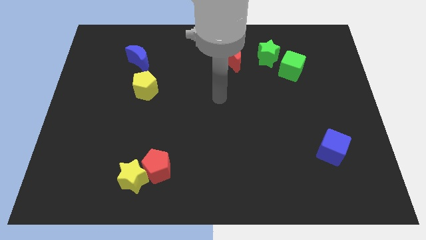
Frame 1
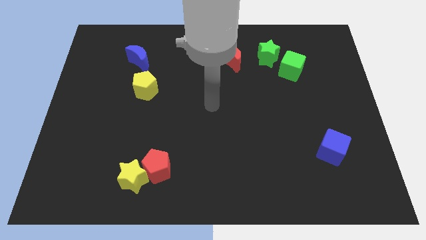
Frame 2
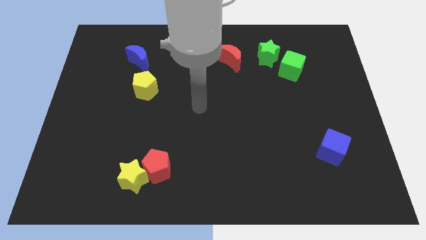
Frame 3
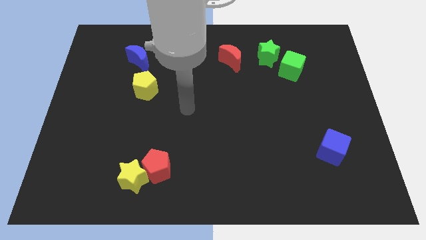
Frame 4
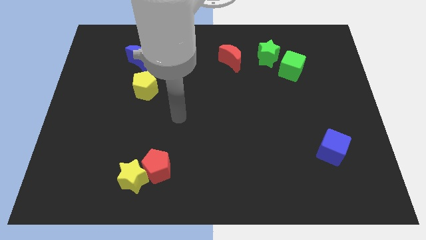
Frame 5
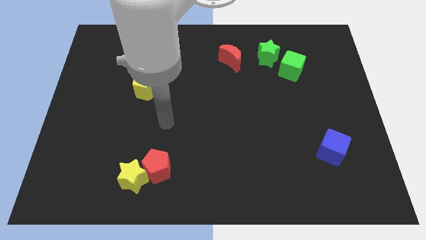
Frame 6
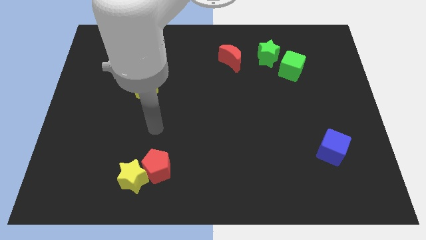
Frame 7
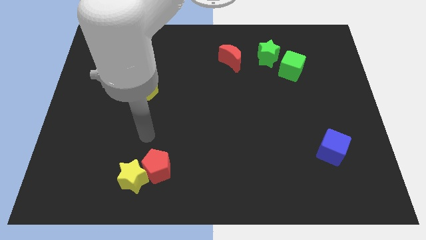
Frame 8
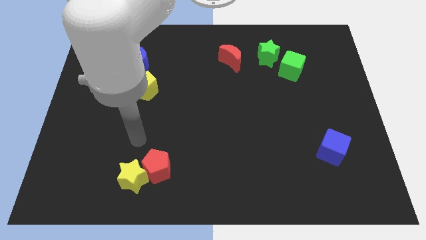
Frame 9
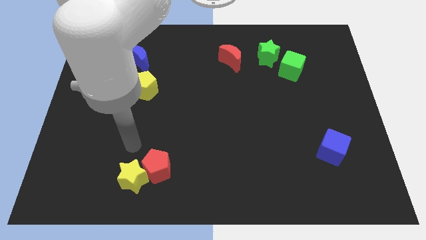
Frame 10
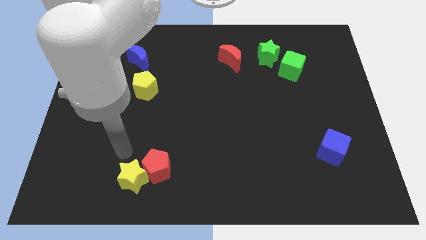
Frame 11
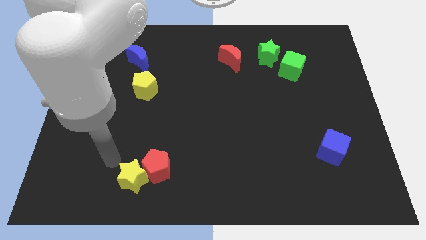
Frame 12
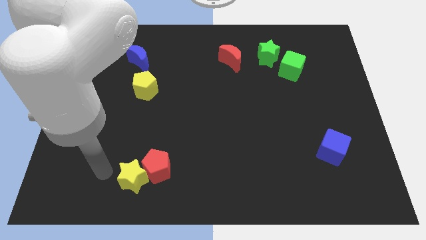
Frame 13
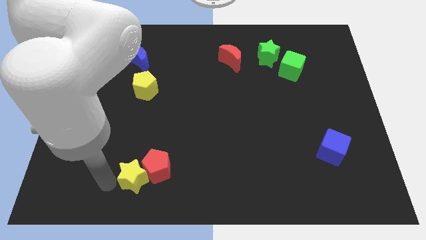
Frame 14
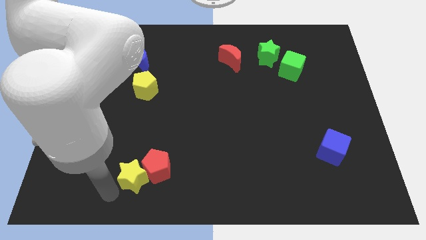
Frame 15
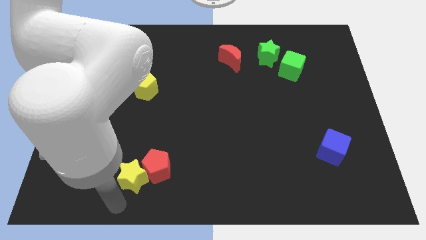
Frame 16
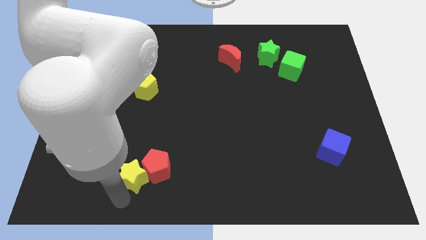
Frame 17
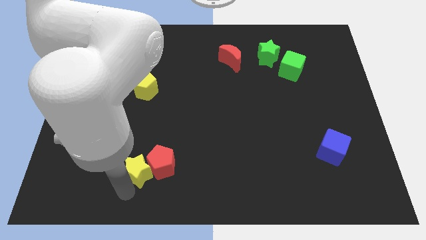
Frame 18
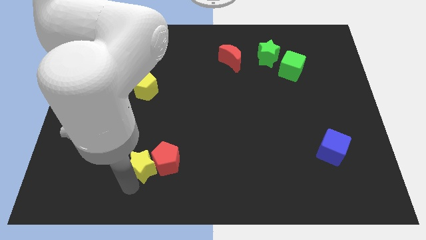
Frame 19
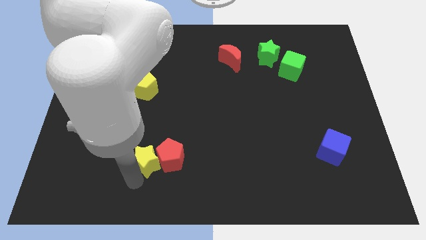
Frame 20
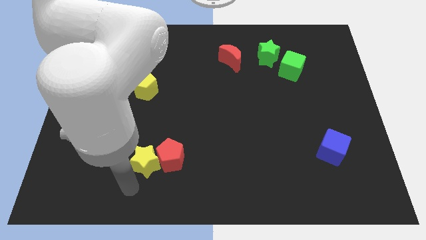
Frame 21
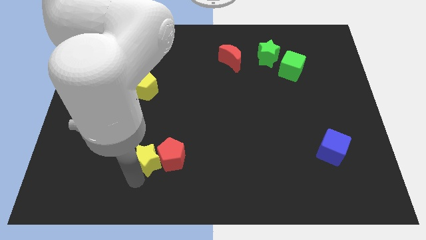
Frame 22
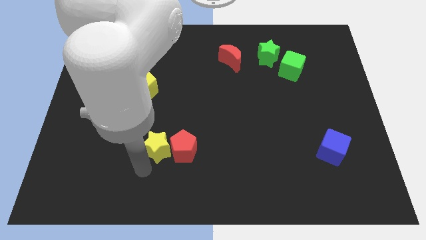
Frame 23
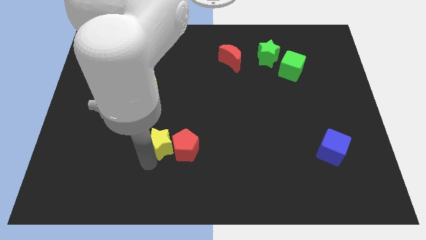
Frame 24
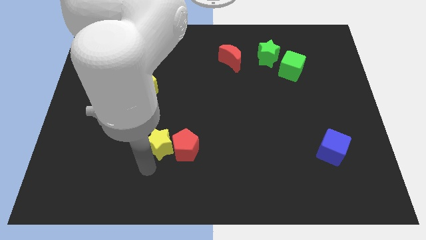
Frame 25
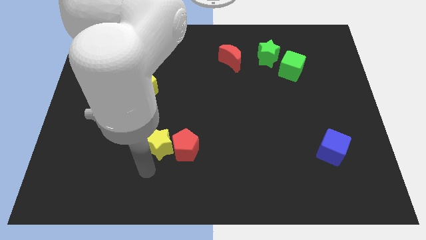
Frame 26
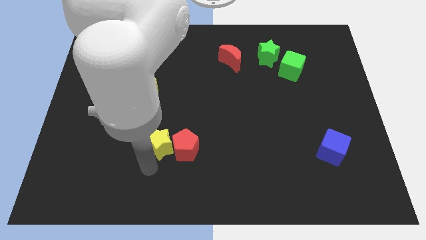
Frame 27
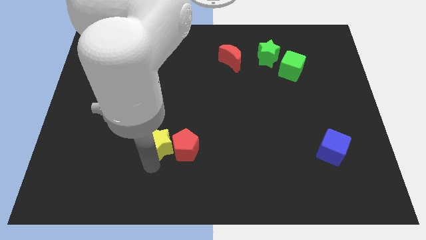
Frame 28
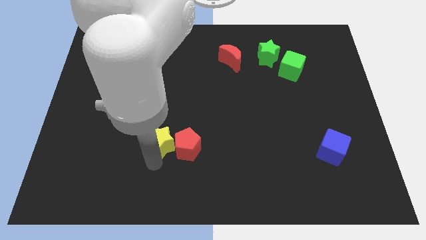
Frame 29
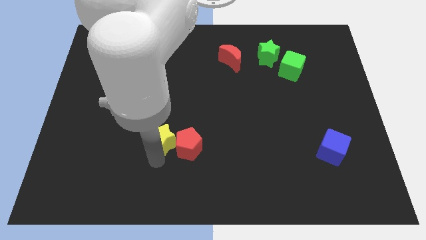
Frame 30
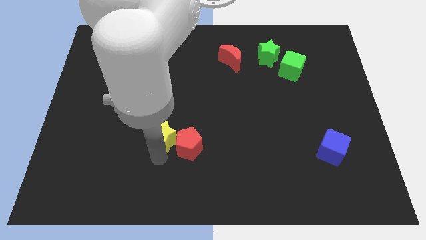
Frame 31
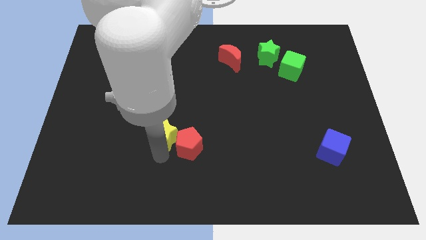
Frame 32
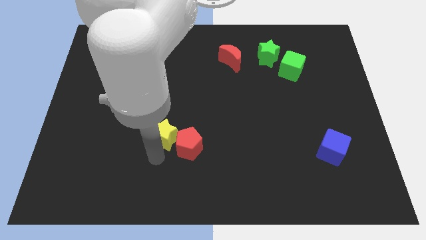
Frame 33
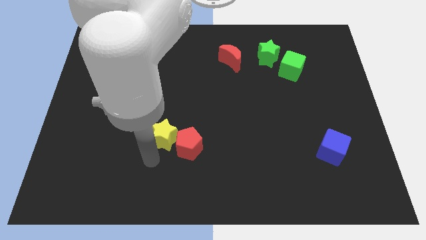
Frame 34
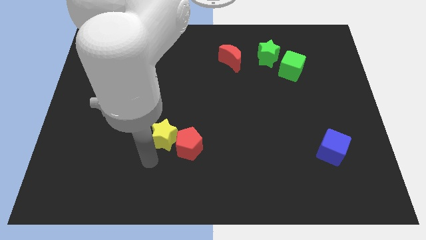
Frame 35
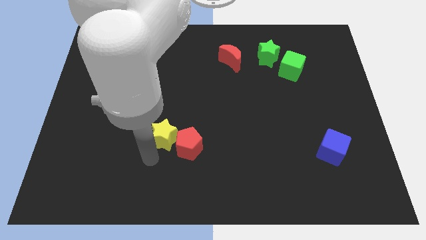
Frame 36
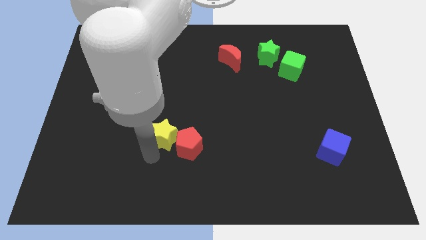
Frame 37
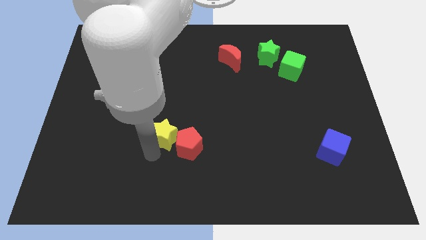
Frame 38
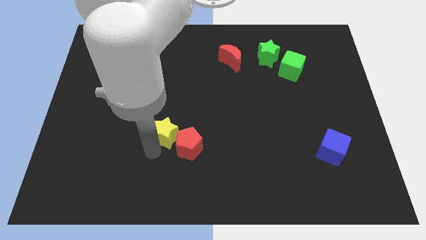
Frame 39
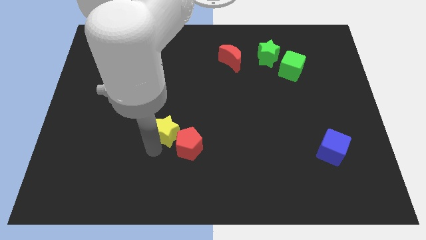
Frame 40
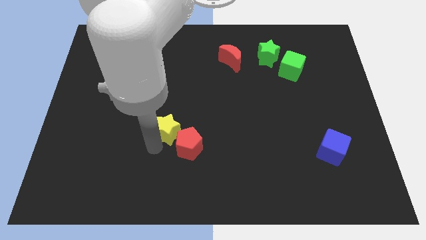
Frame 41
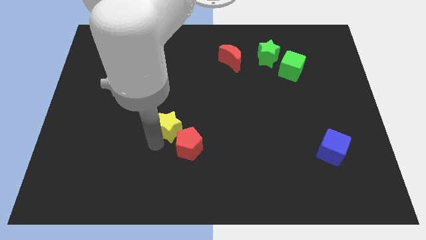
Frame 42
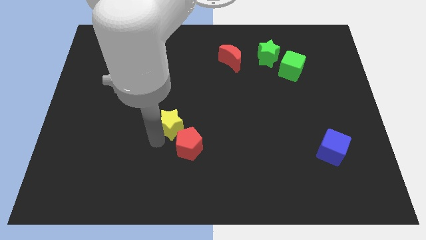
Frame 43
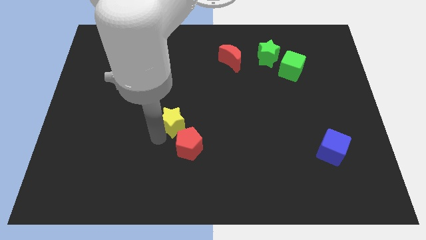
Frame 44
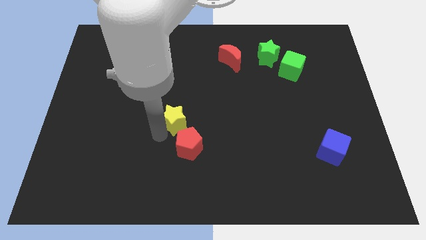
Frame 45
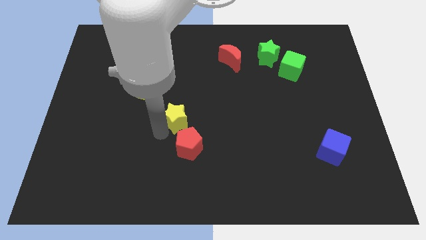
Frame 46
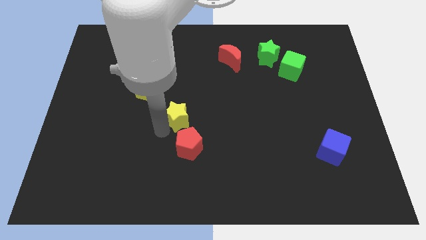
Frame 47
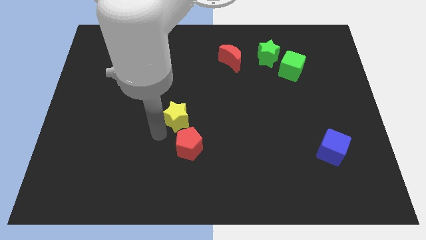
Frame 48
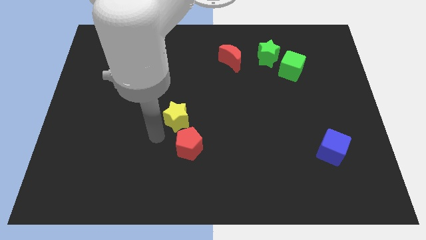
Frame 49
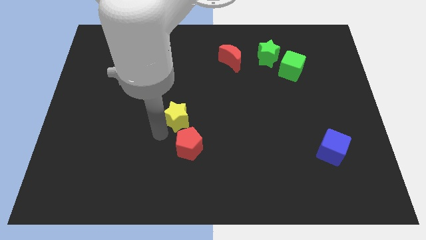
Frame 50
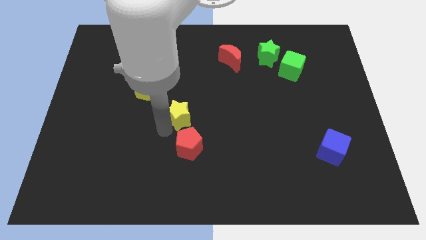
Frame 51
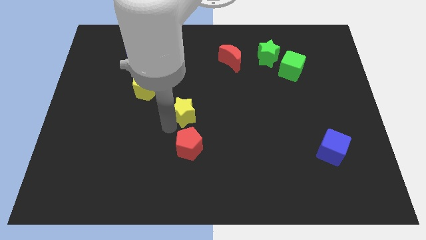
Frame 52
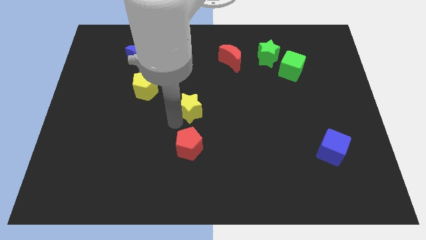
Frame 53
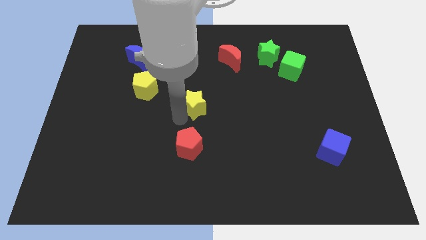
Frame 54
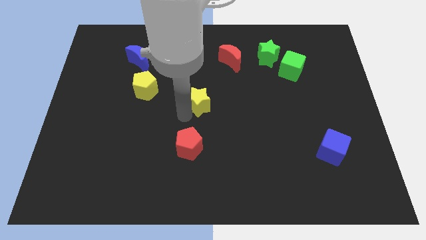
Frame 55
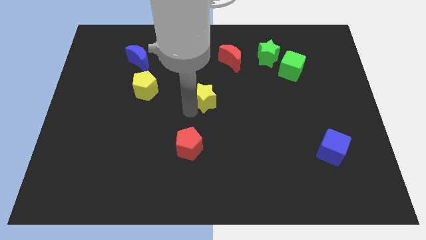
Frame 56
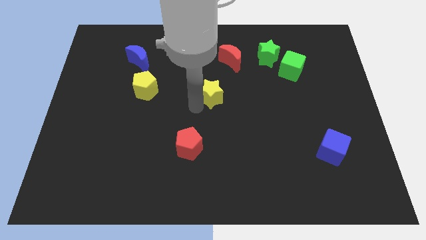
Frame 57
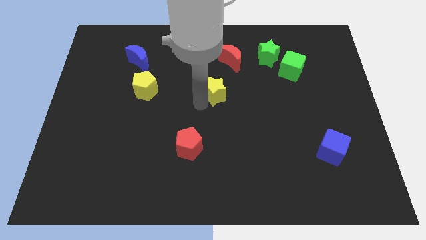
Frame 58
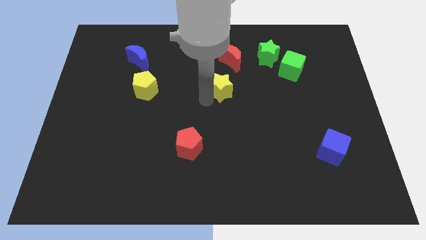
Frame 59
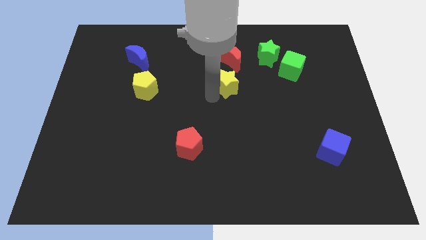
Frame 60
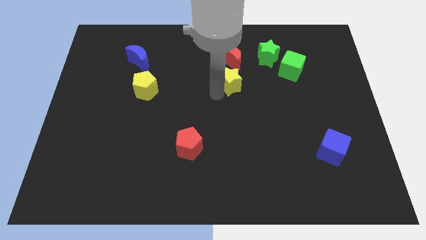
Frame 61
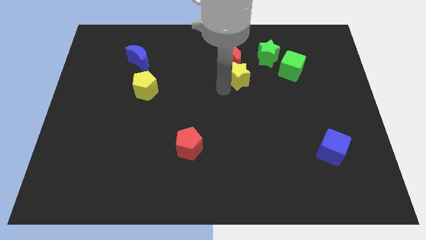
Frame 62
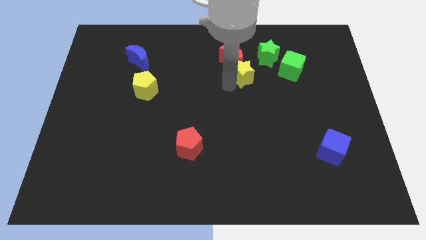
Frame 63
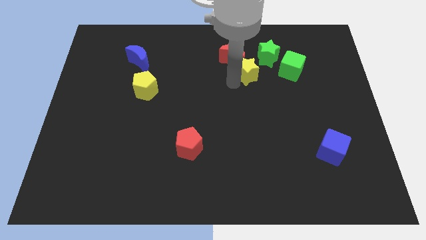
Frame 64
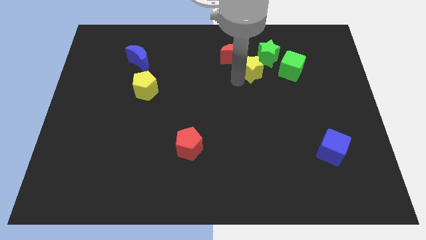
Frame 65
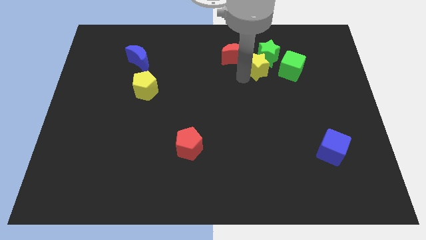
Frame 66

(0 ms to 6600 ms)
push the yellow star next to the green star

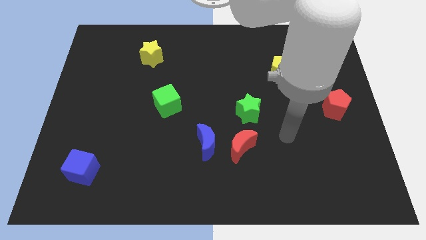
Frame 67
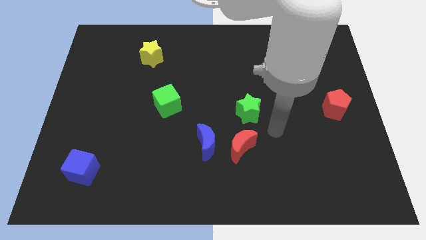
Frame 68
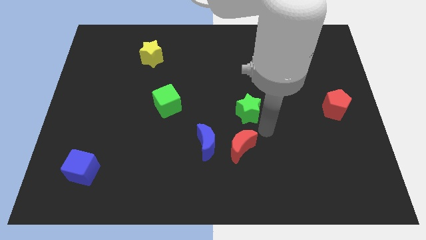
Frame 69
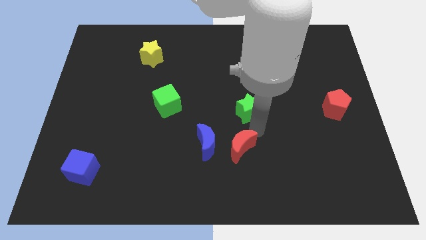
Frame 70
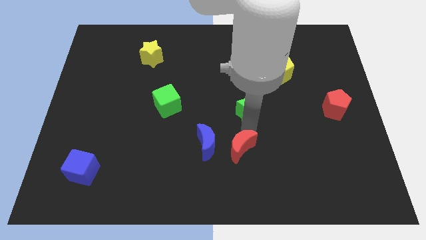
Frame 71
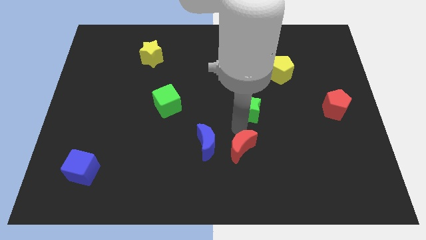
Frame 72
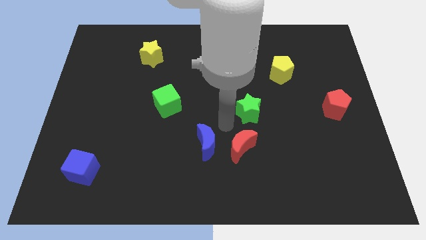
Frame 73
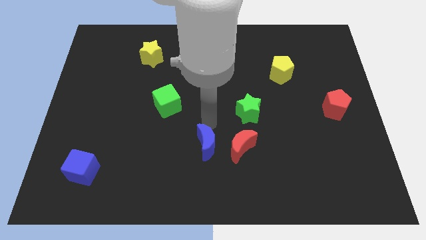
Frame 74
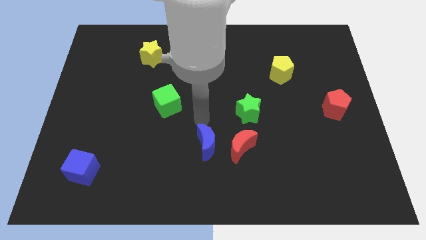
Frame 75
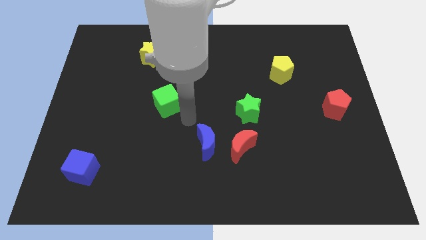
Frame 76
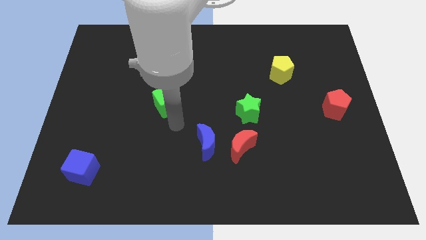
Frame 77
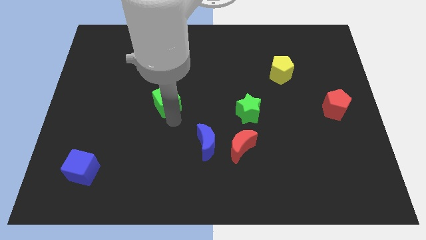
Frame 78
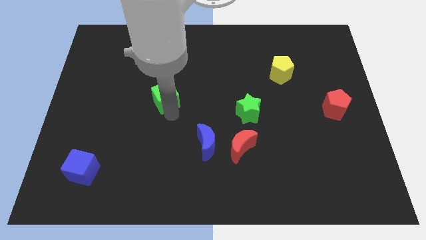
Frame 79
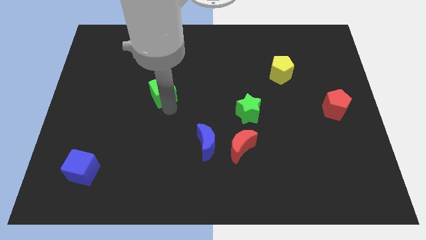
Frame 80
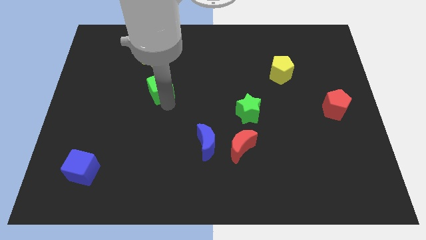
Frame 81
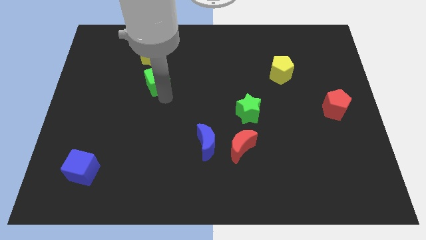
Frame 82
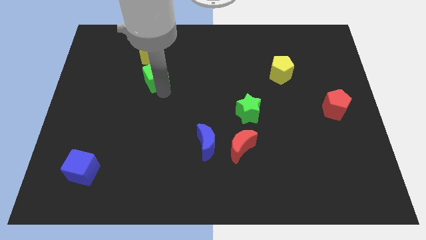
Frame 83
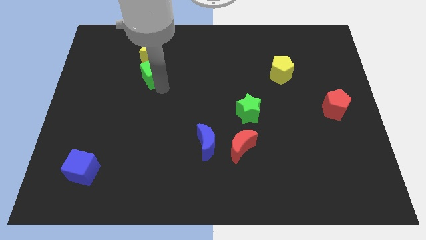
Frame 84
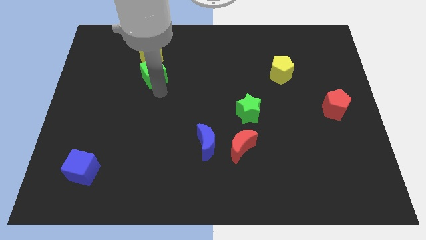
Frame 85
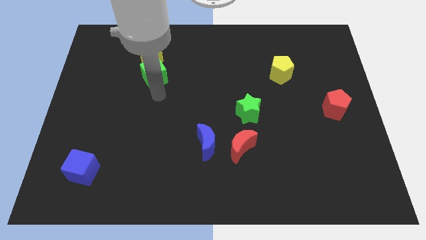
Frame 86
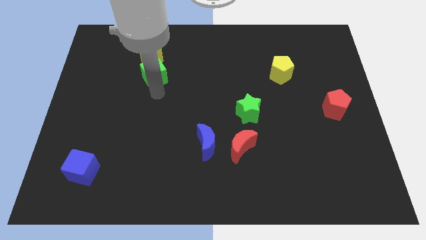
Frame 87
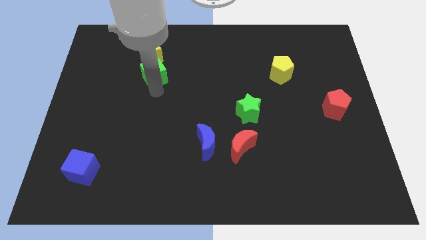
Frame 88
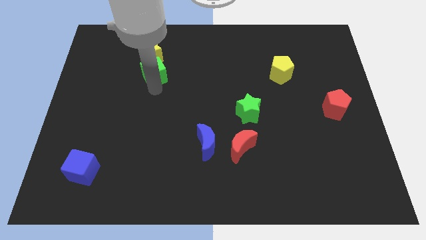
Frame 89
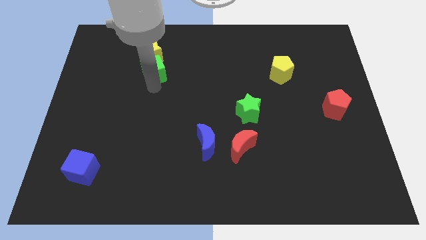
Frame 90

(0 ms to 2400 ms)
push the green cube to the yellow star
